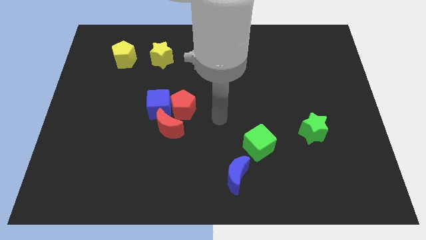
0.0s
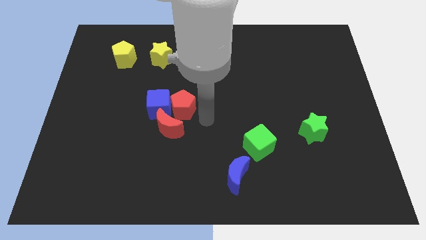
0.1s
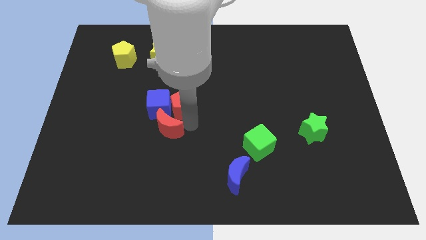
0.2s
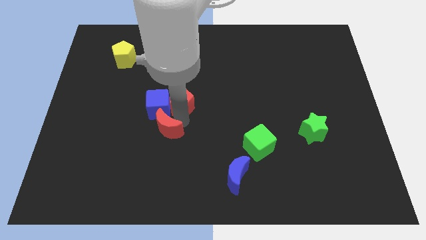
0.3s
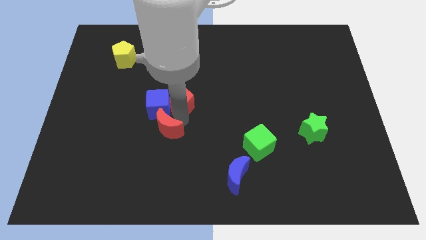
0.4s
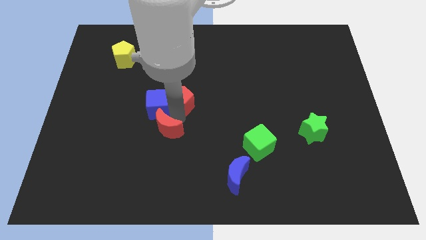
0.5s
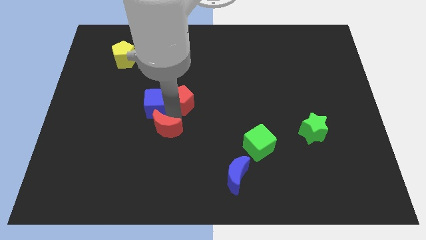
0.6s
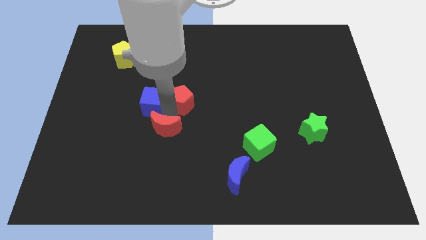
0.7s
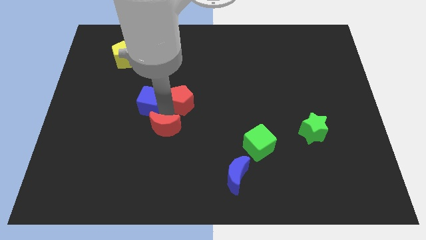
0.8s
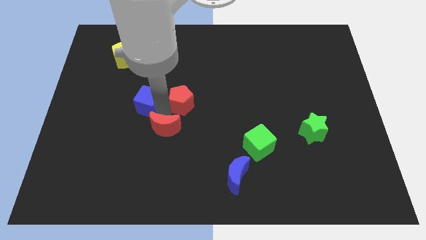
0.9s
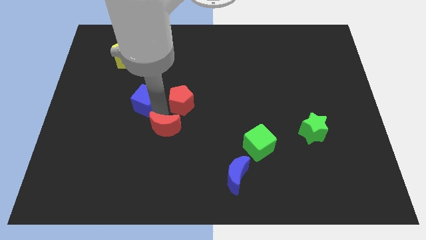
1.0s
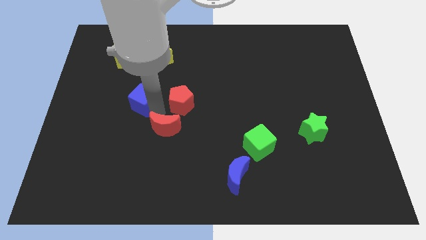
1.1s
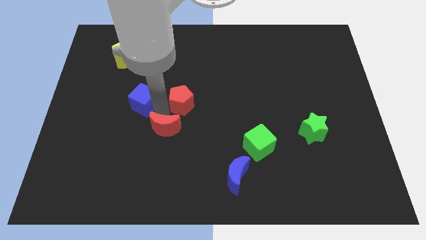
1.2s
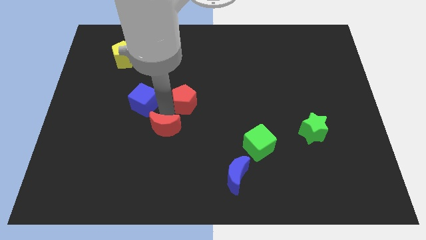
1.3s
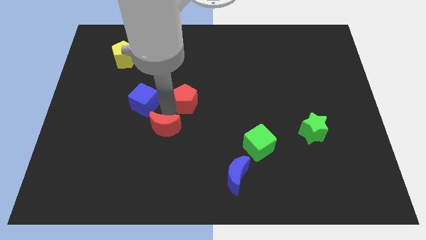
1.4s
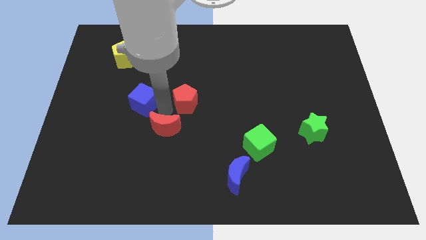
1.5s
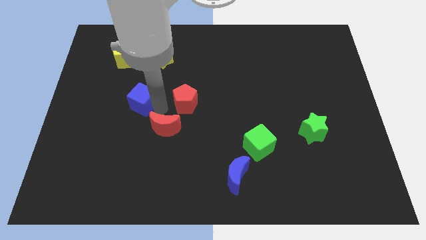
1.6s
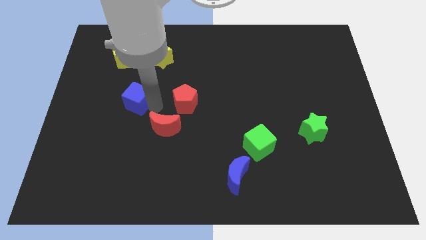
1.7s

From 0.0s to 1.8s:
pull the blue cube apart from the red pentagon and red moon

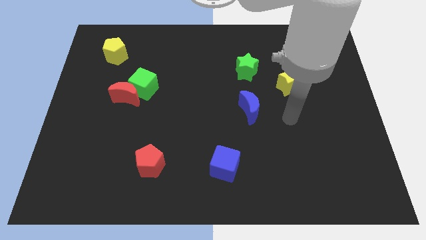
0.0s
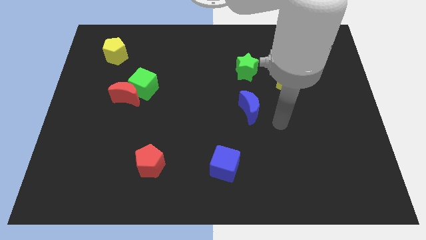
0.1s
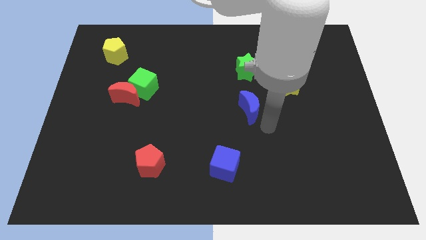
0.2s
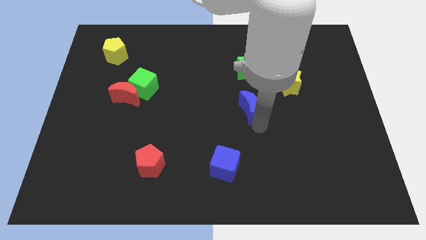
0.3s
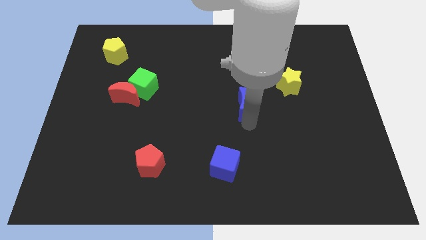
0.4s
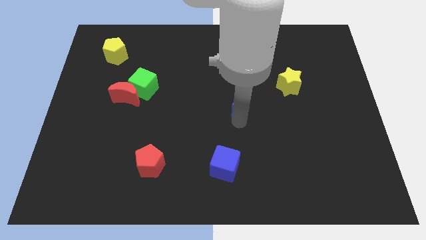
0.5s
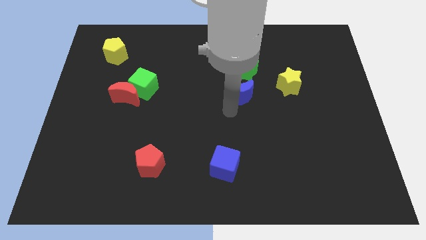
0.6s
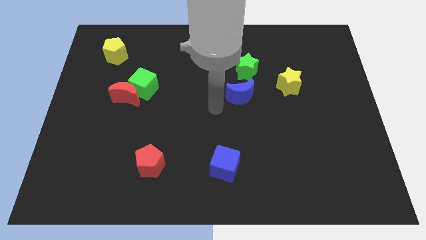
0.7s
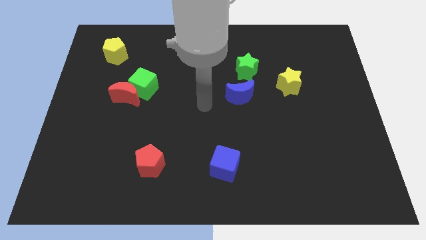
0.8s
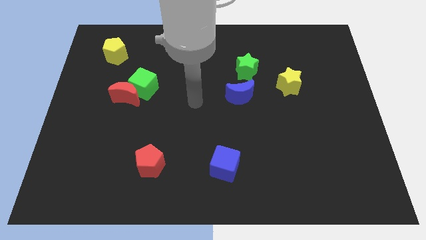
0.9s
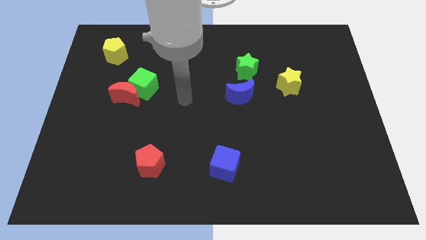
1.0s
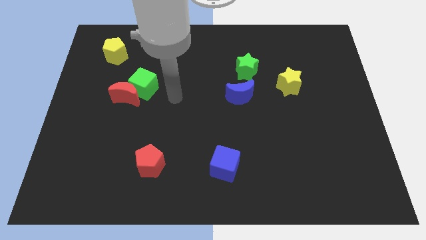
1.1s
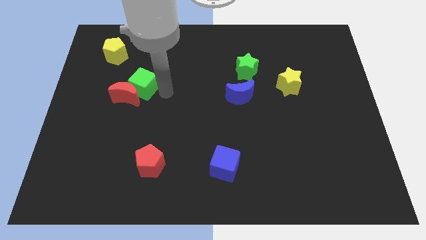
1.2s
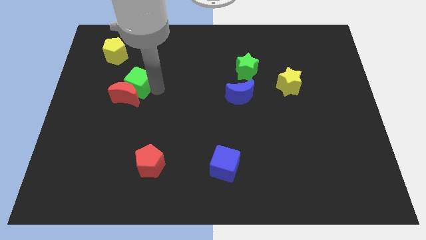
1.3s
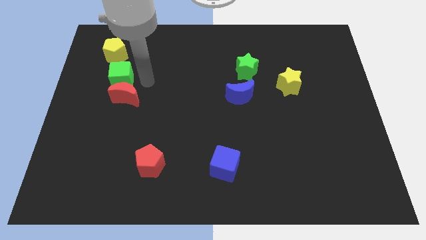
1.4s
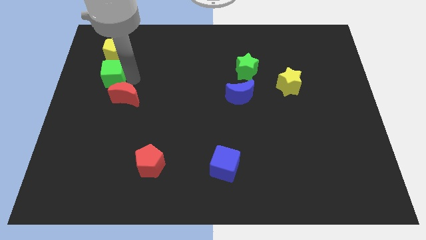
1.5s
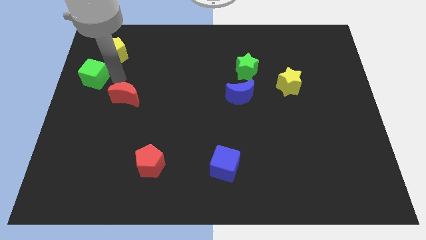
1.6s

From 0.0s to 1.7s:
move the red moon away from the green cube

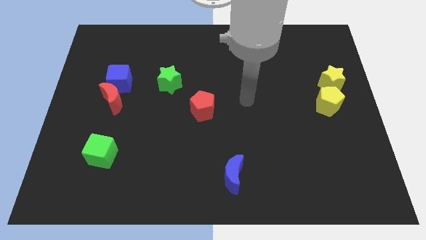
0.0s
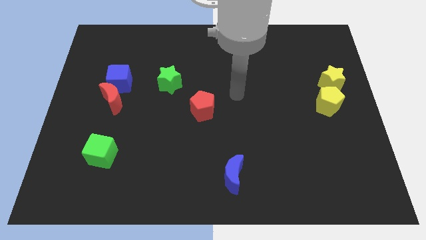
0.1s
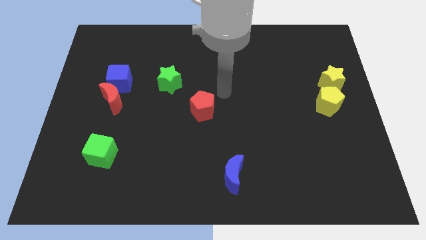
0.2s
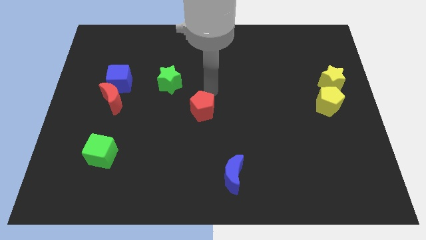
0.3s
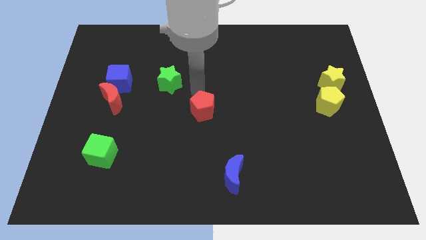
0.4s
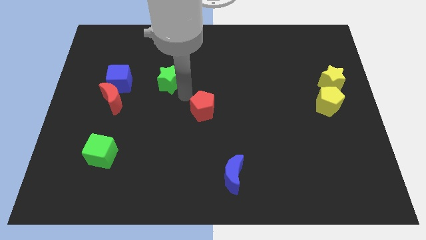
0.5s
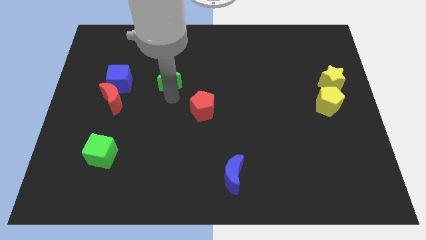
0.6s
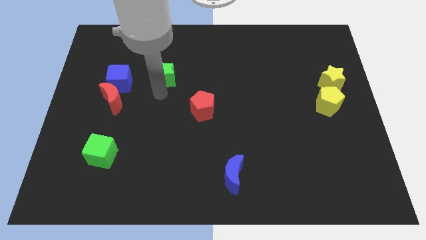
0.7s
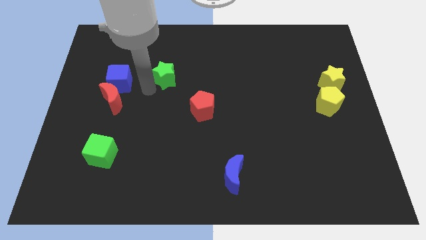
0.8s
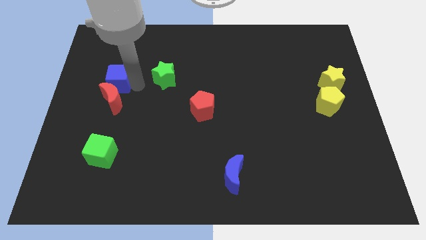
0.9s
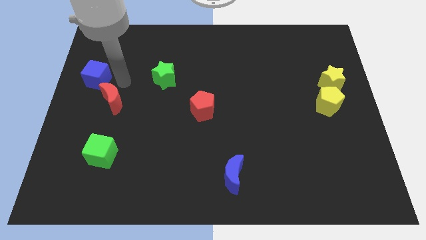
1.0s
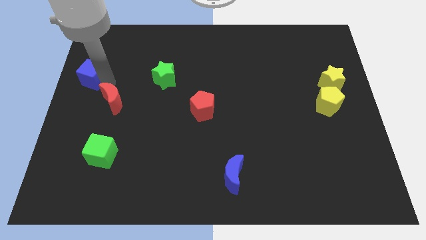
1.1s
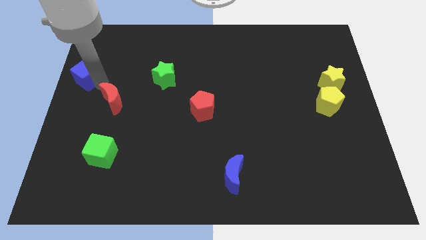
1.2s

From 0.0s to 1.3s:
move the red moon away from the blue cube

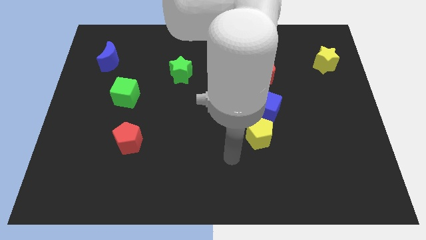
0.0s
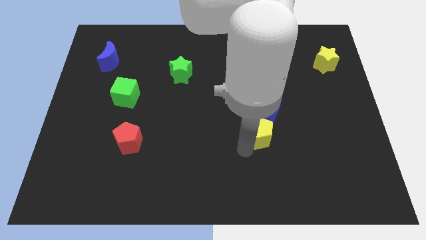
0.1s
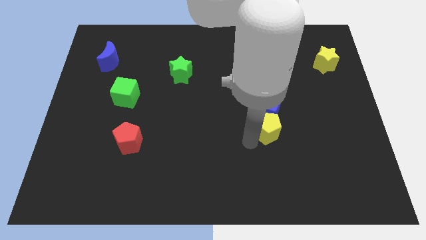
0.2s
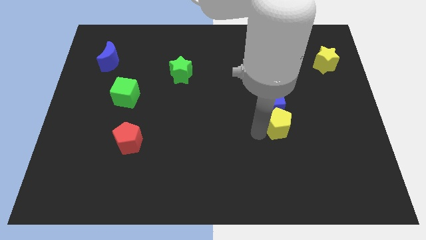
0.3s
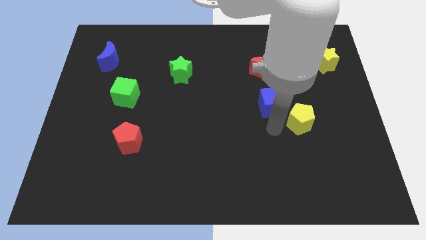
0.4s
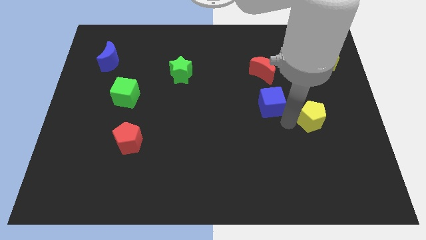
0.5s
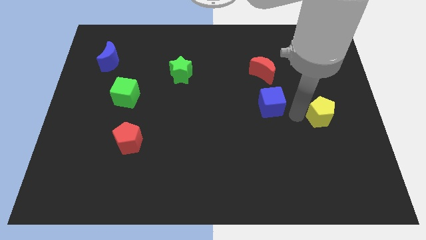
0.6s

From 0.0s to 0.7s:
pull the blue cube apart from the yellow pentagon

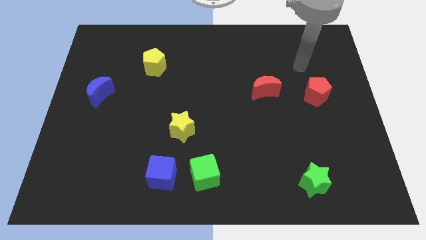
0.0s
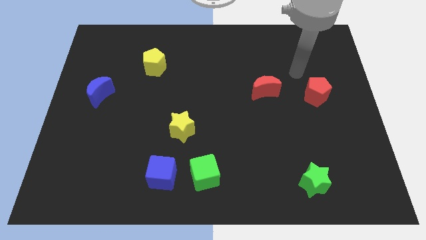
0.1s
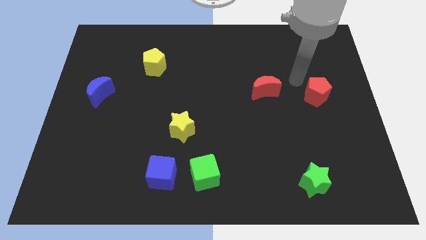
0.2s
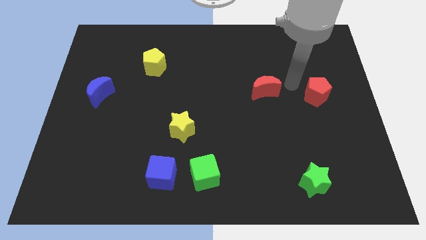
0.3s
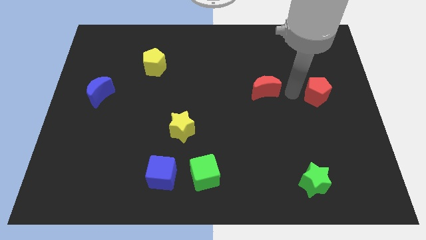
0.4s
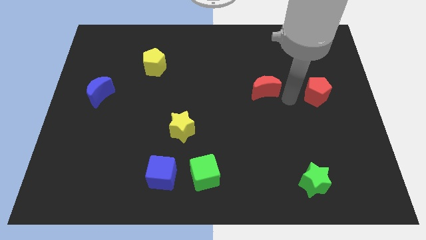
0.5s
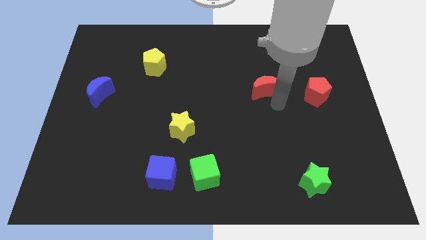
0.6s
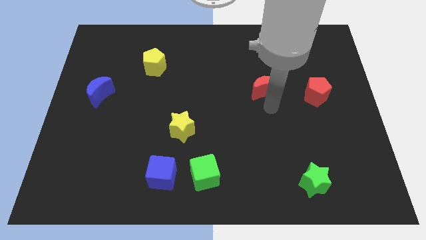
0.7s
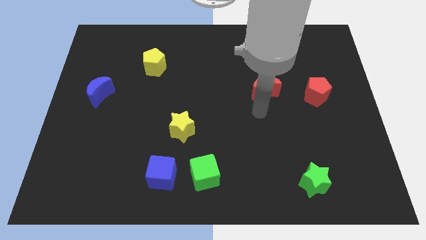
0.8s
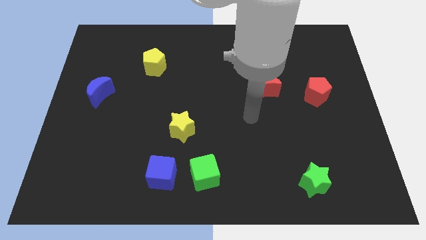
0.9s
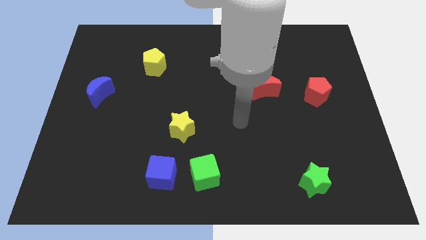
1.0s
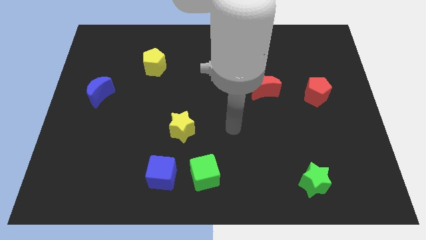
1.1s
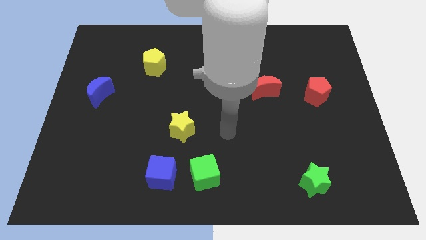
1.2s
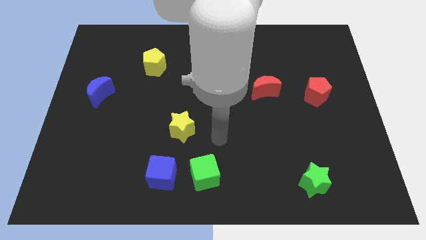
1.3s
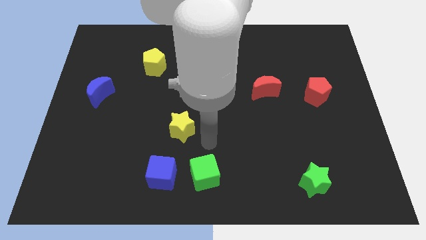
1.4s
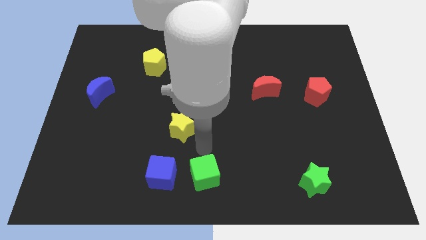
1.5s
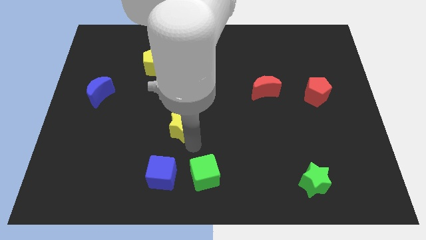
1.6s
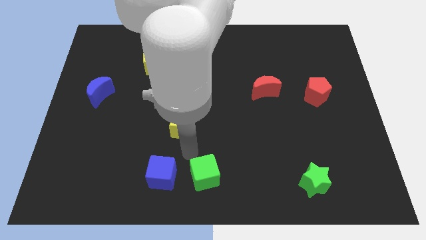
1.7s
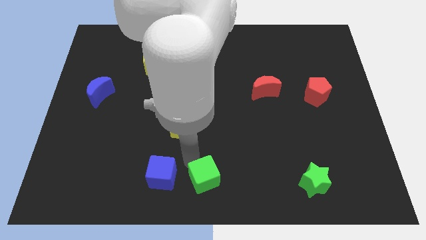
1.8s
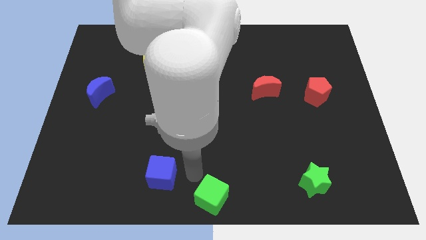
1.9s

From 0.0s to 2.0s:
move the blue cube away from the green cube

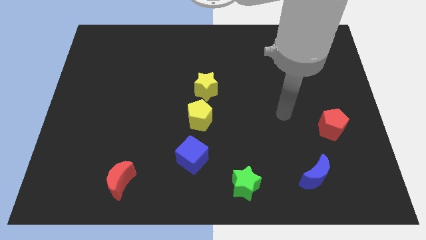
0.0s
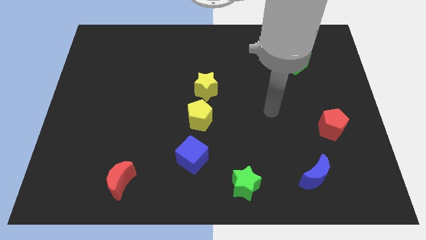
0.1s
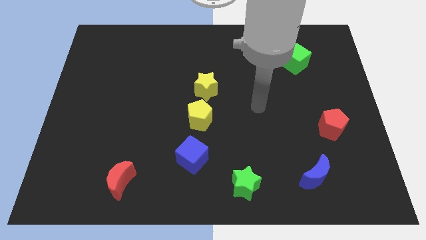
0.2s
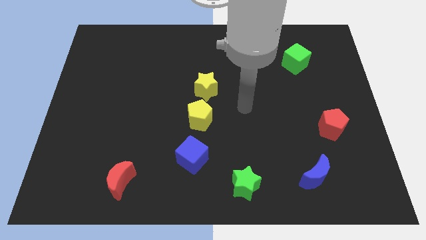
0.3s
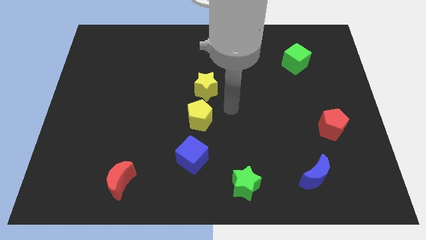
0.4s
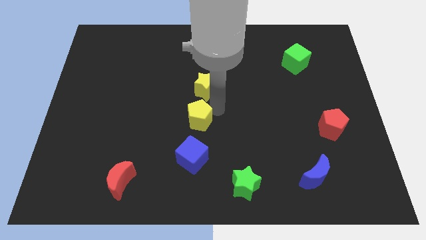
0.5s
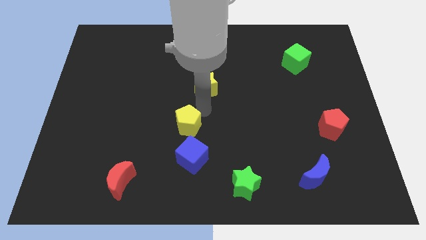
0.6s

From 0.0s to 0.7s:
move the yellow star away from the yellow pentagon

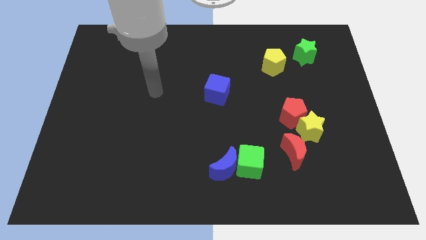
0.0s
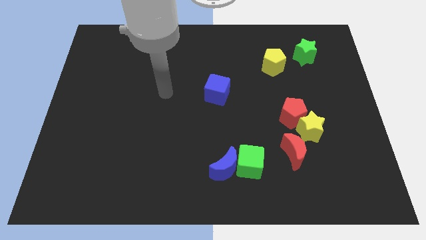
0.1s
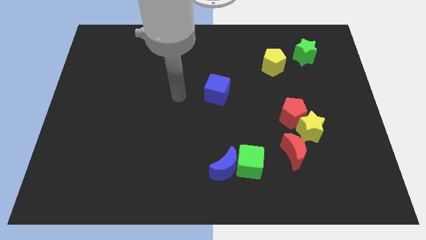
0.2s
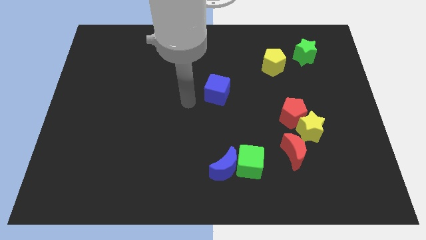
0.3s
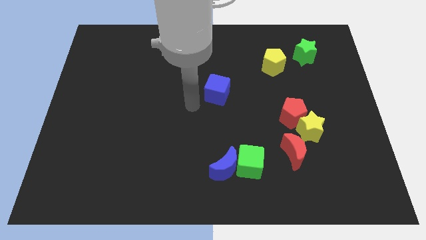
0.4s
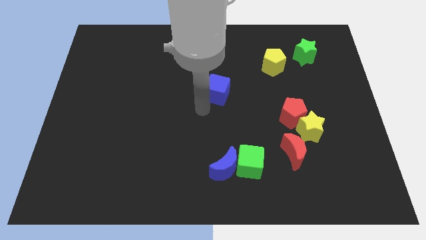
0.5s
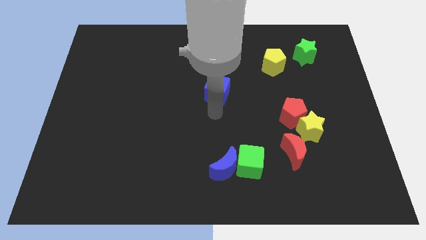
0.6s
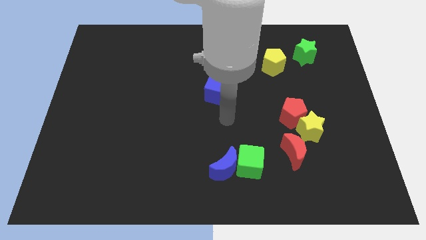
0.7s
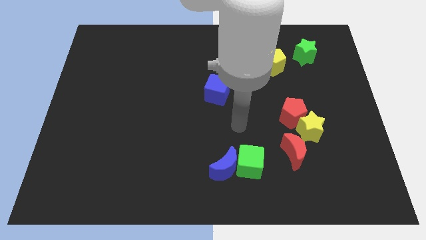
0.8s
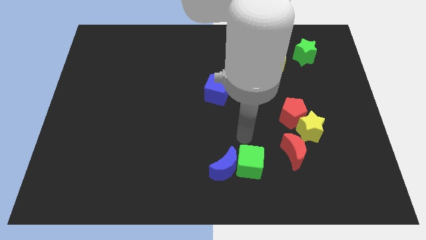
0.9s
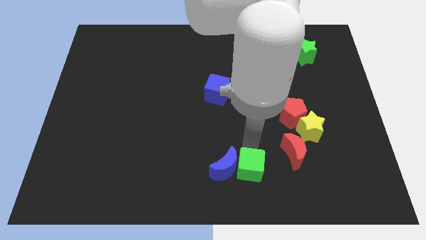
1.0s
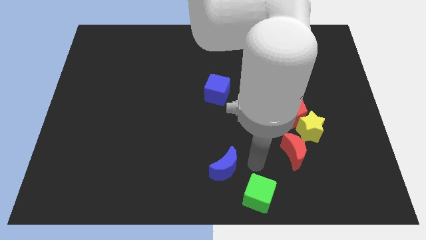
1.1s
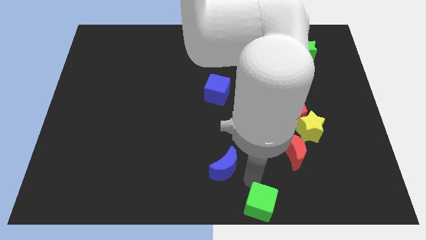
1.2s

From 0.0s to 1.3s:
separate the blue moon from the green cube

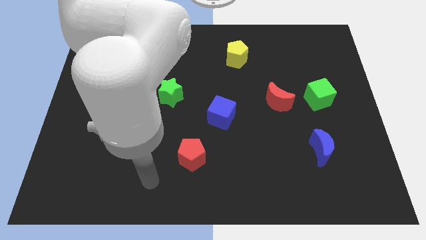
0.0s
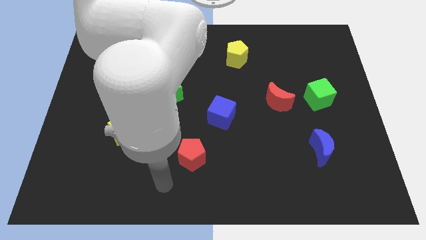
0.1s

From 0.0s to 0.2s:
separate the red moon from the green cube
